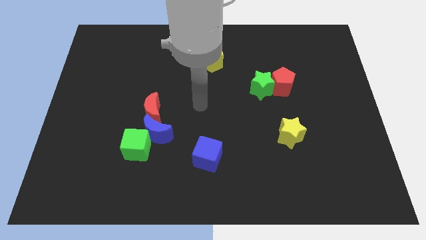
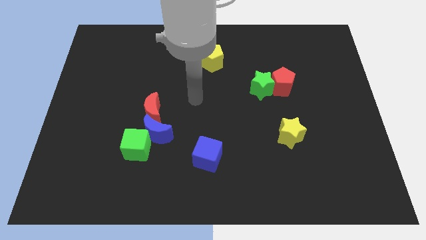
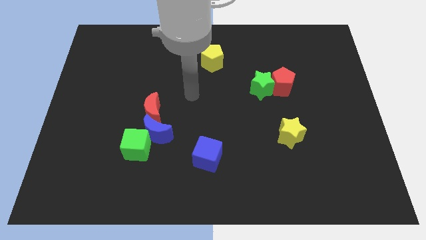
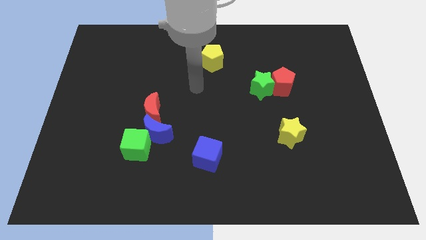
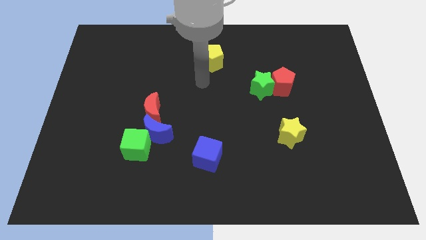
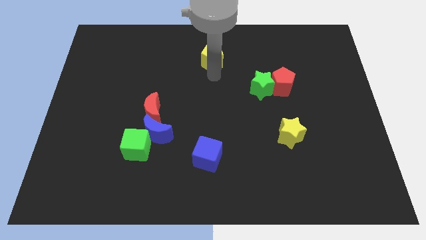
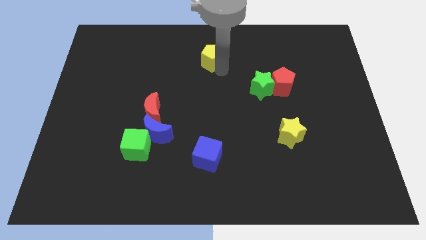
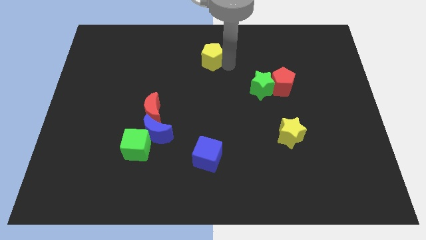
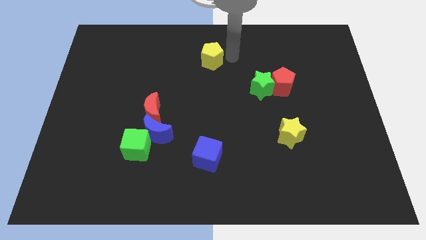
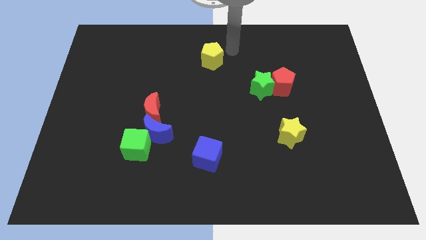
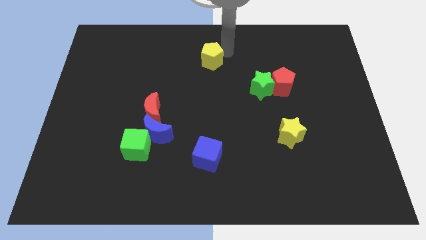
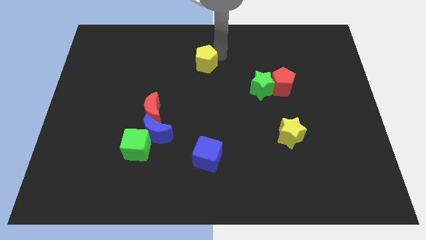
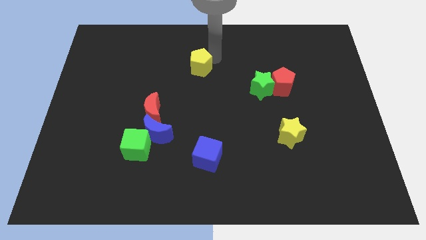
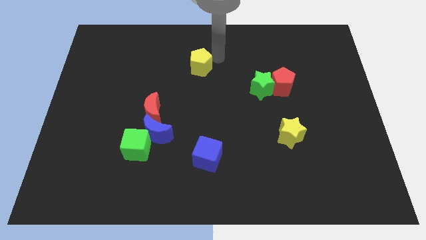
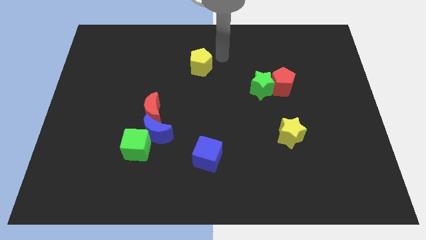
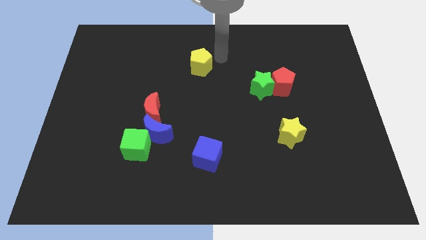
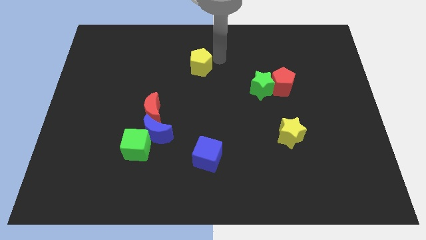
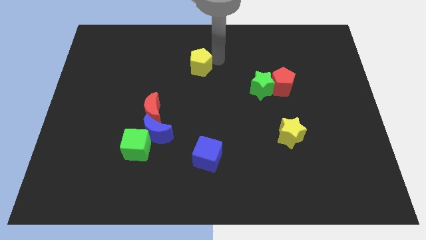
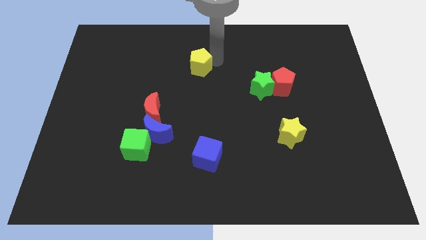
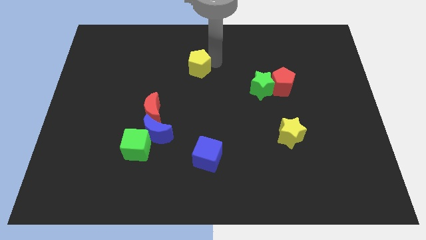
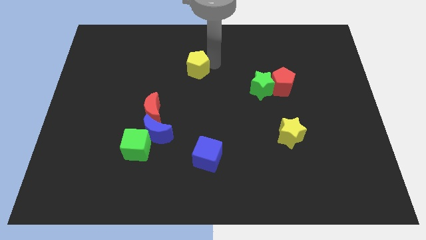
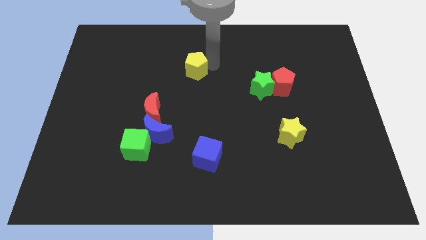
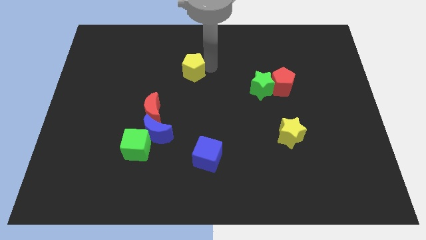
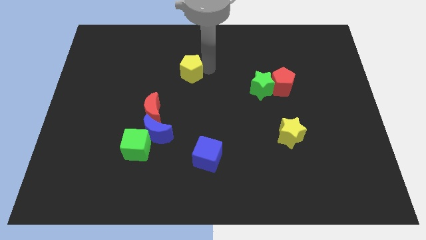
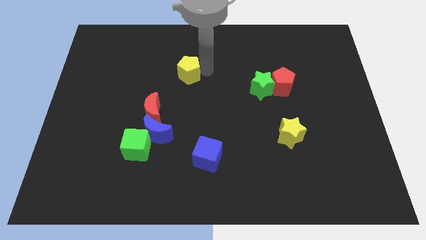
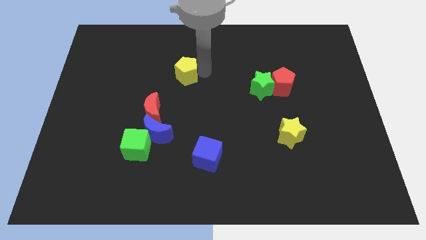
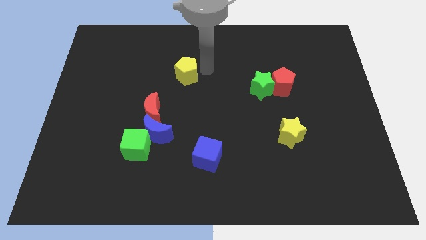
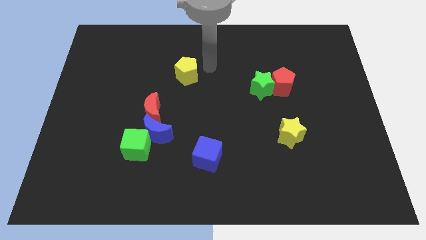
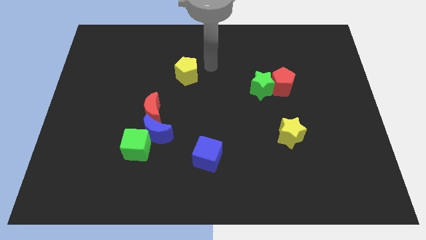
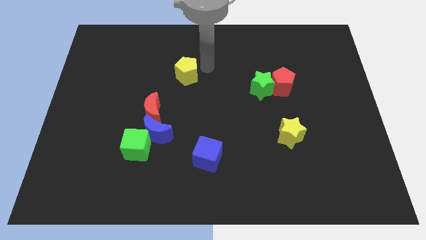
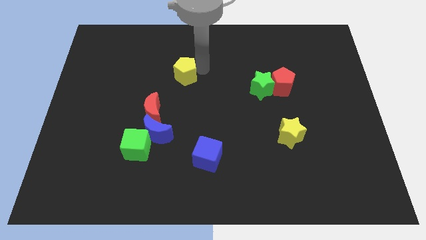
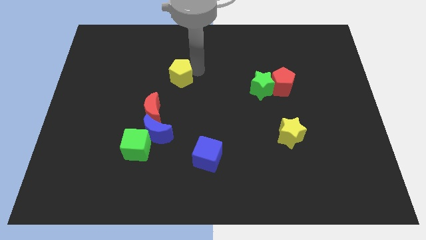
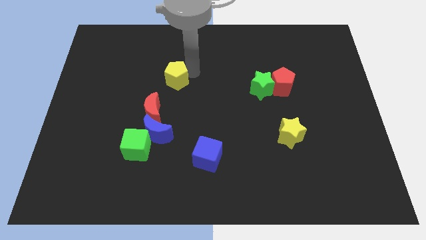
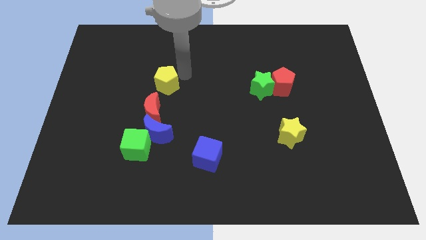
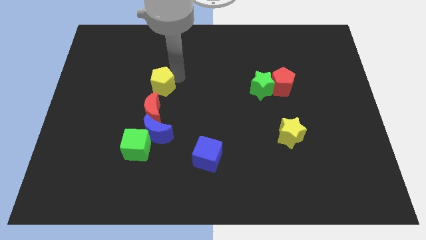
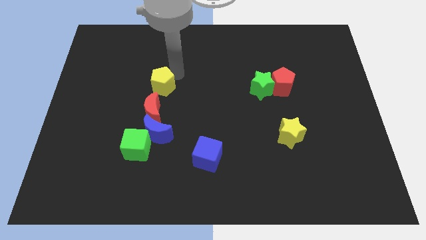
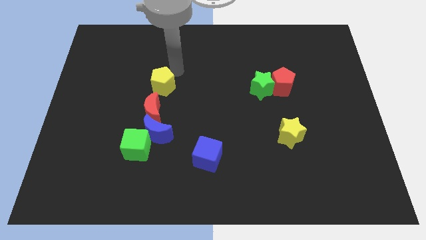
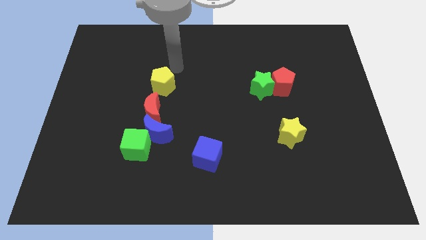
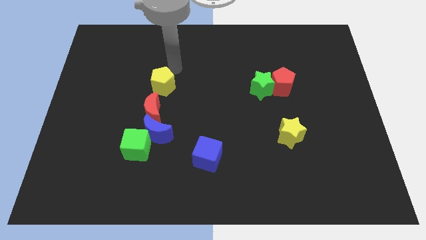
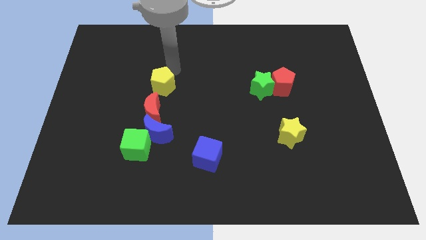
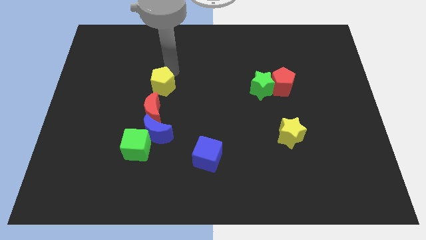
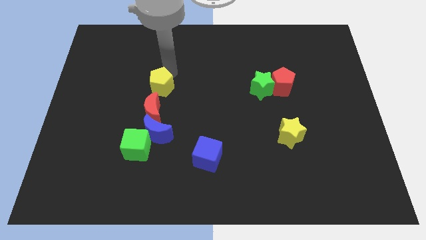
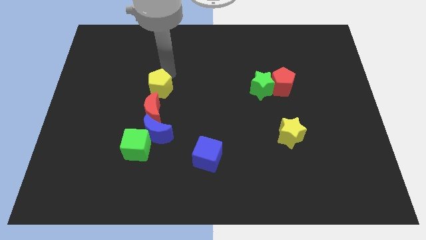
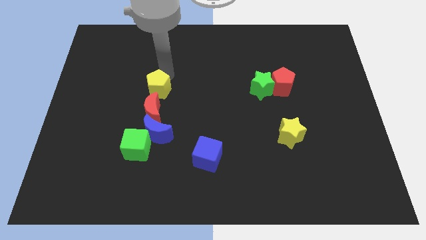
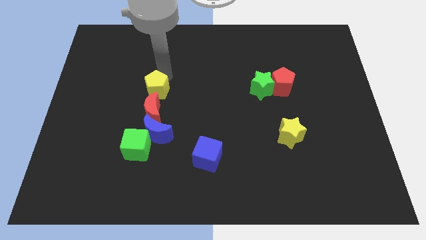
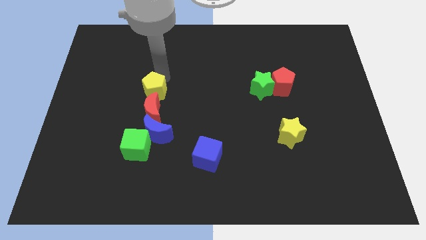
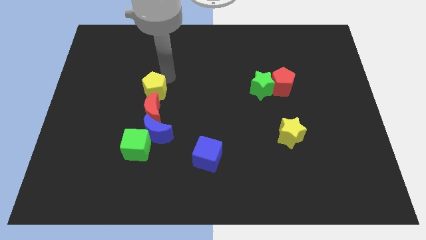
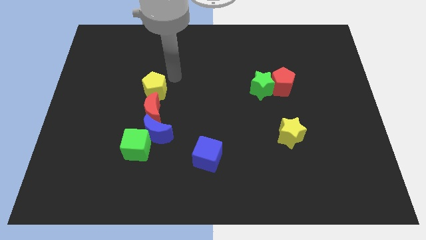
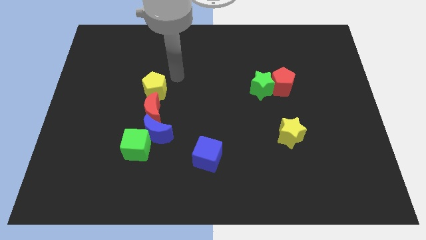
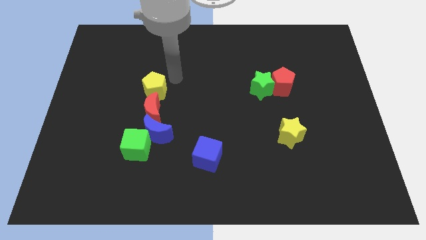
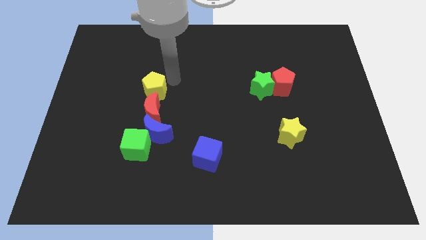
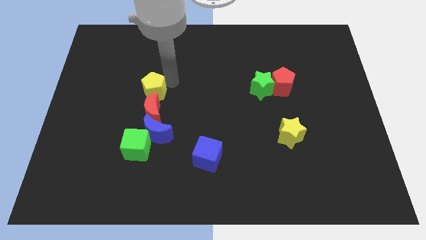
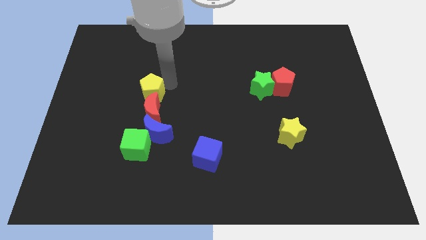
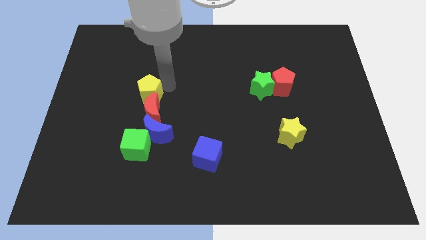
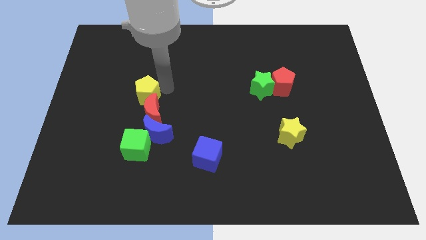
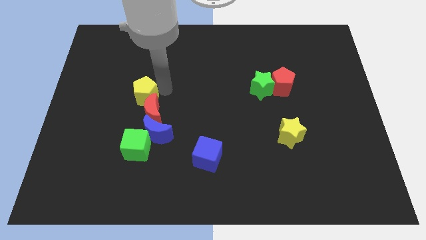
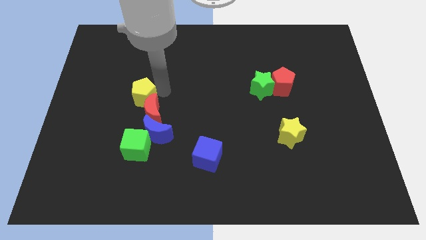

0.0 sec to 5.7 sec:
push the yellow pentagon down and to the left diagonally

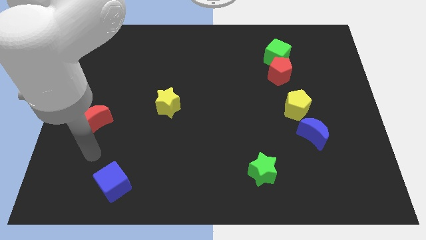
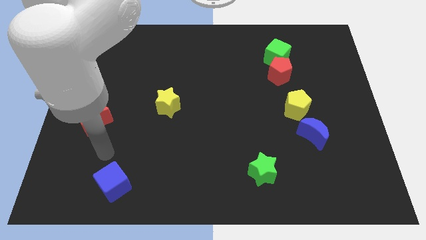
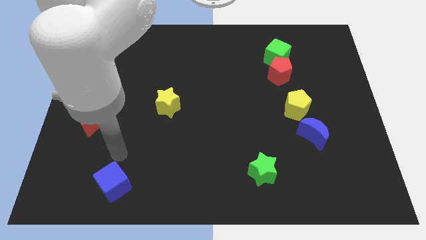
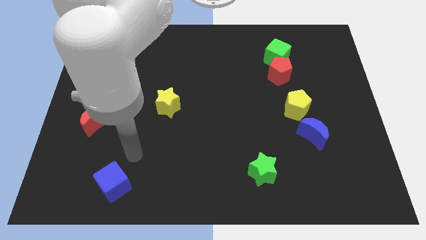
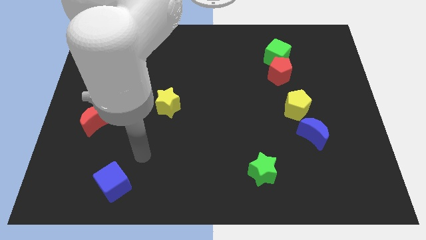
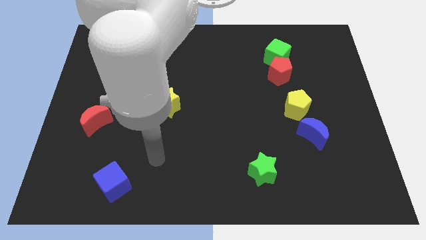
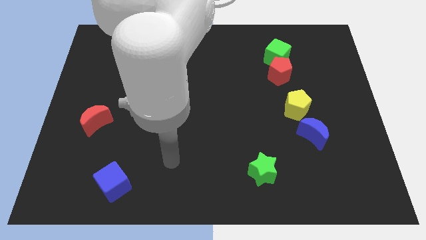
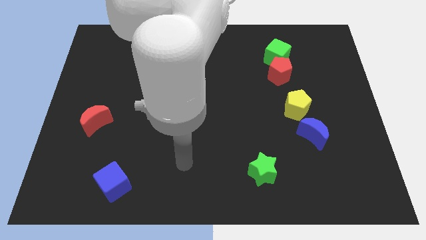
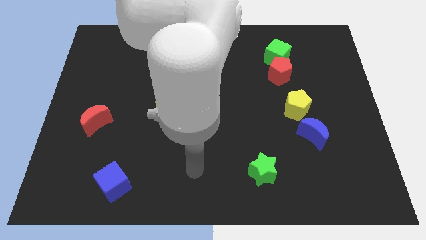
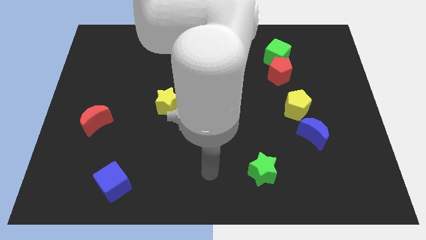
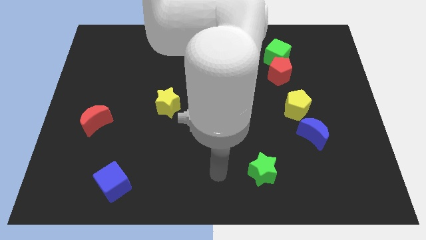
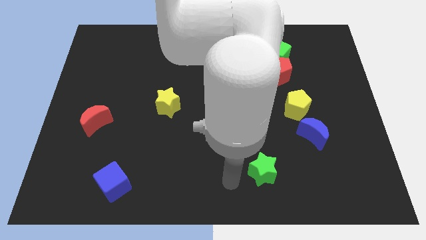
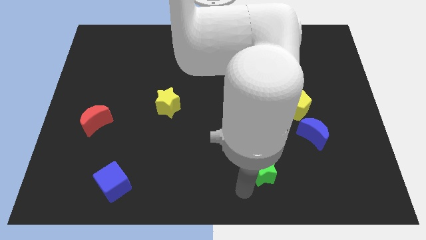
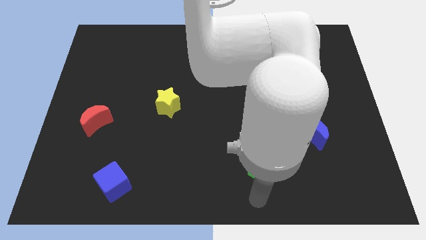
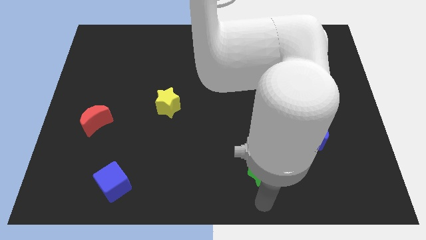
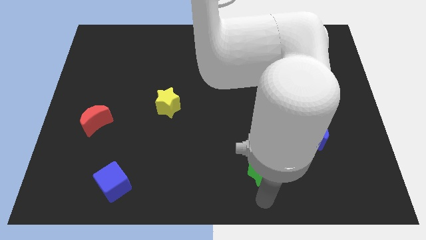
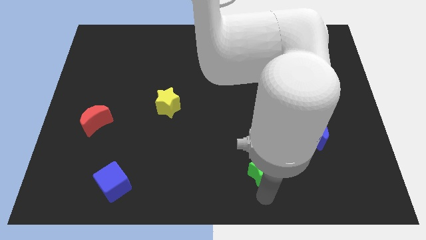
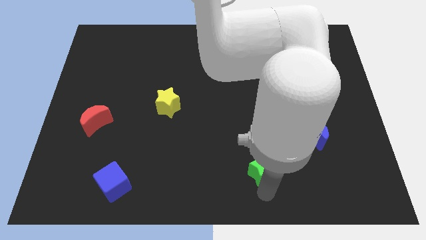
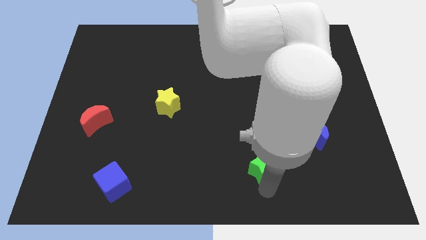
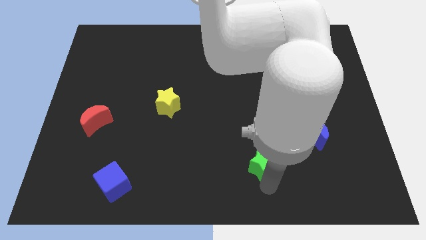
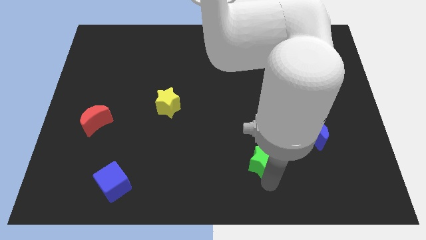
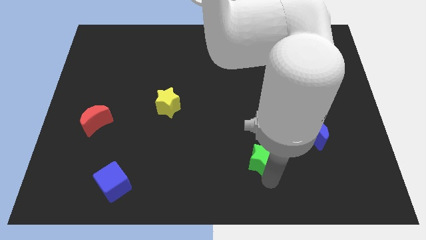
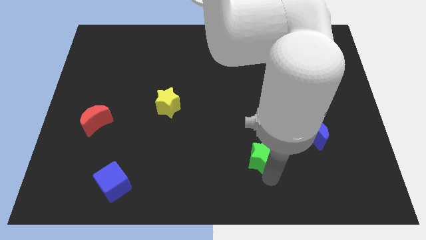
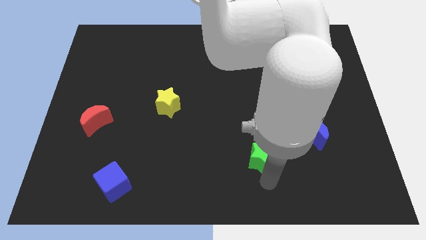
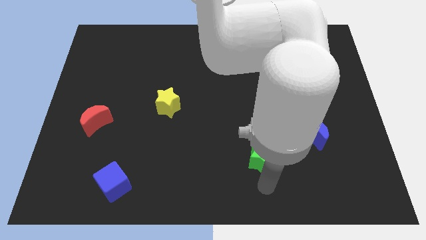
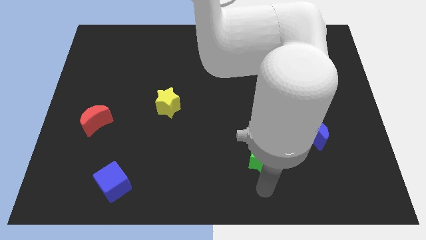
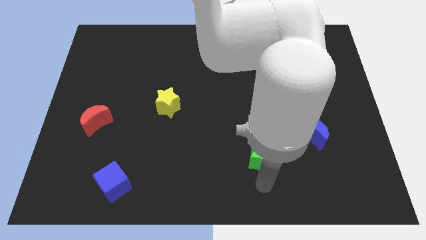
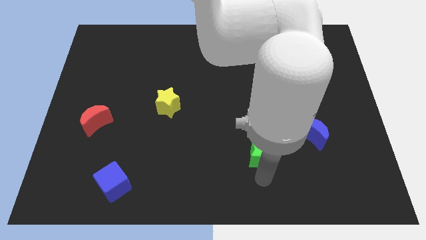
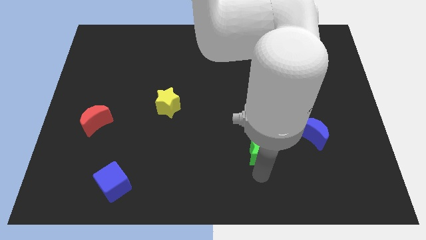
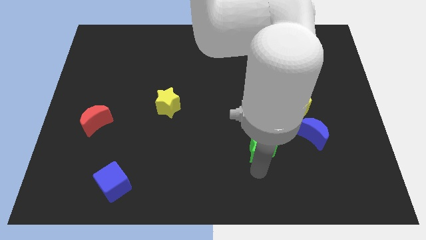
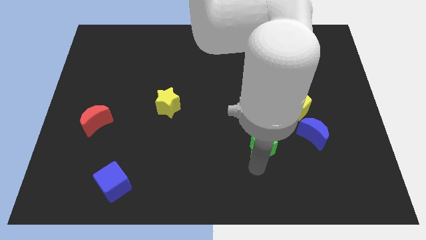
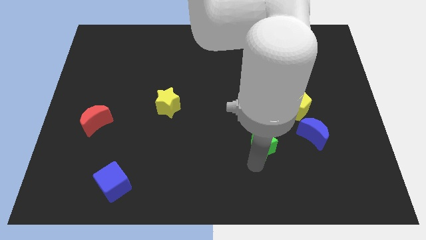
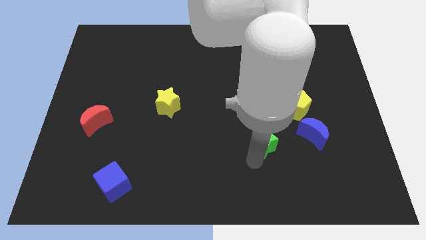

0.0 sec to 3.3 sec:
slightly slide the green star up
